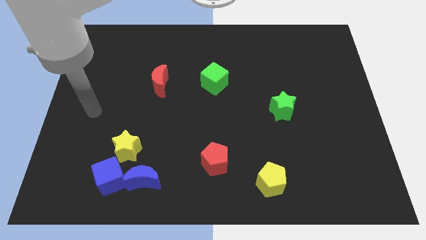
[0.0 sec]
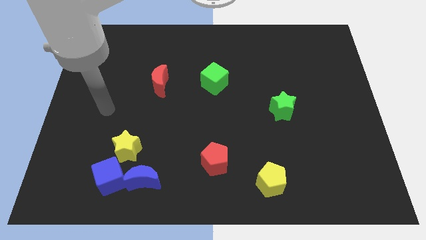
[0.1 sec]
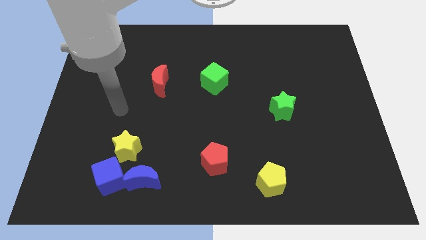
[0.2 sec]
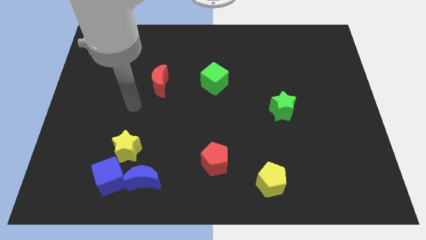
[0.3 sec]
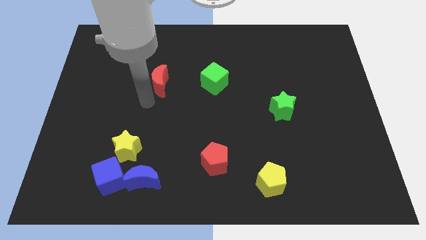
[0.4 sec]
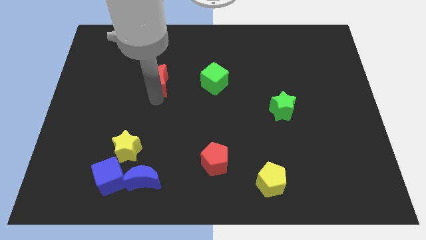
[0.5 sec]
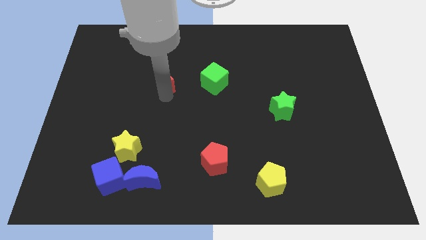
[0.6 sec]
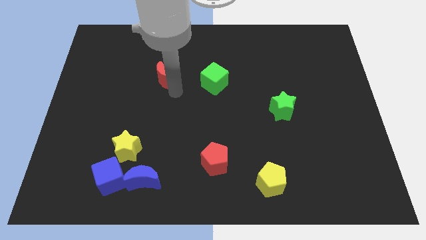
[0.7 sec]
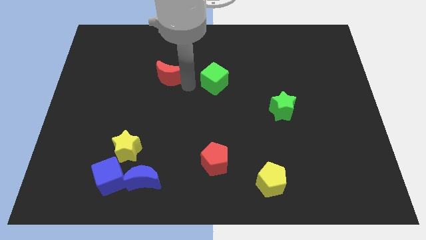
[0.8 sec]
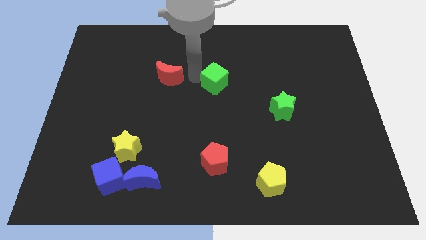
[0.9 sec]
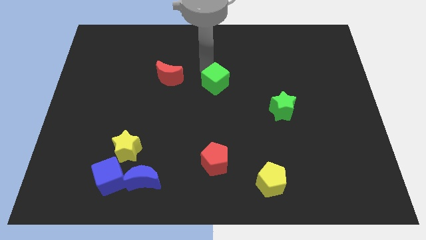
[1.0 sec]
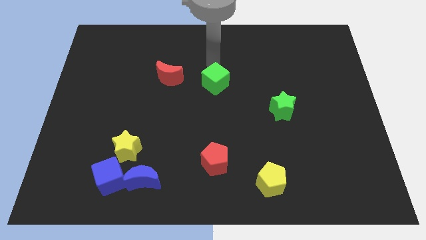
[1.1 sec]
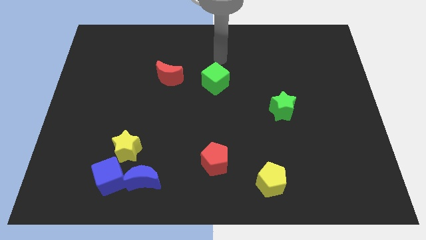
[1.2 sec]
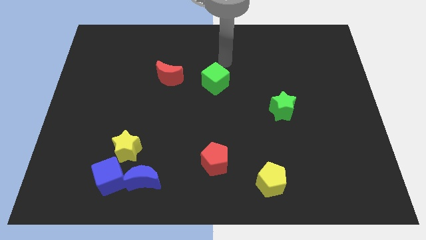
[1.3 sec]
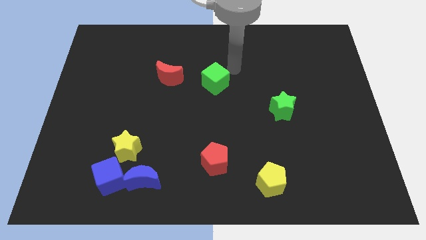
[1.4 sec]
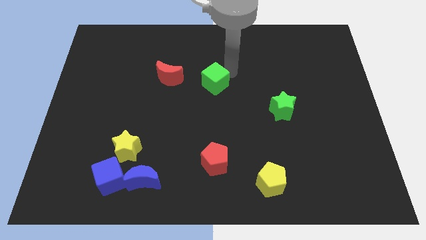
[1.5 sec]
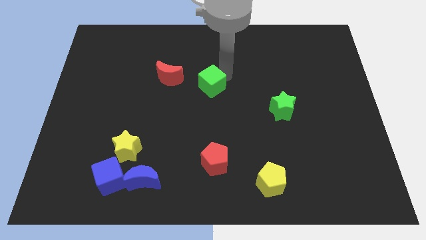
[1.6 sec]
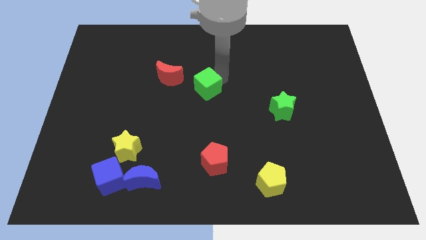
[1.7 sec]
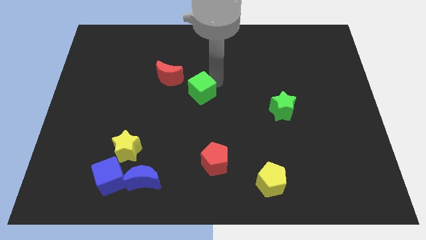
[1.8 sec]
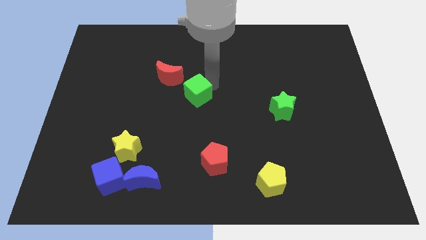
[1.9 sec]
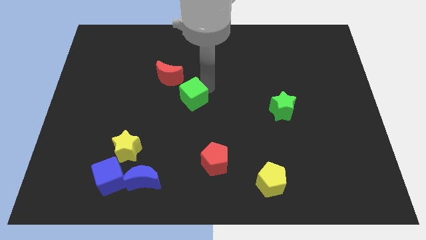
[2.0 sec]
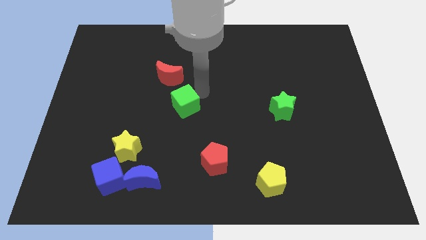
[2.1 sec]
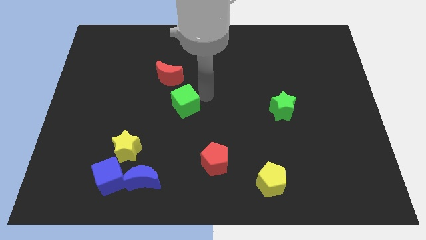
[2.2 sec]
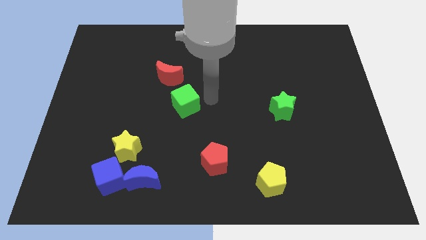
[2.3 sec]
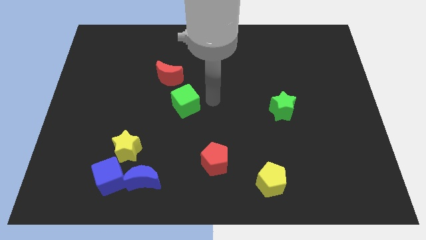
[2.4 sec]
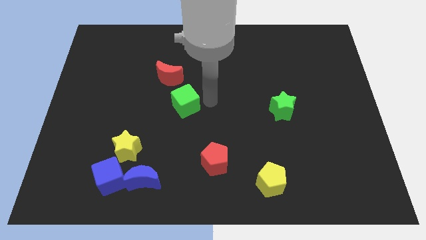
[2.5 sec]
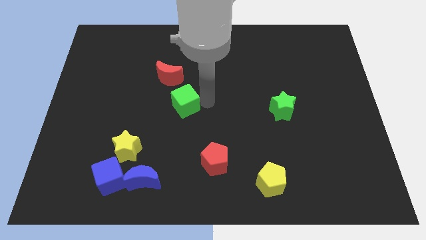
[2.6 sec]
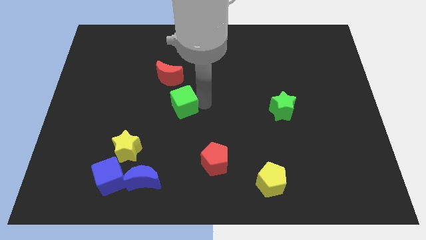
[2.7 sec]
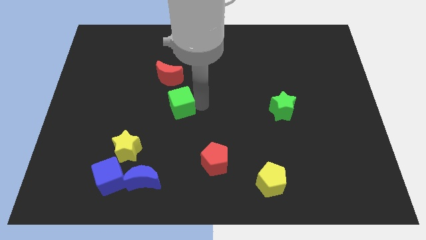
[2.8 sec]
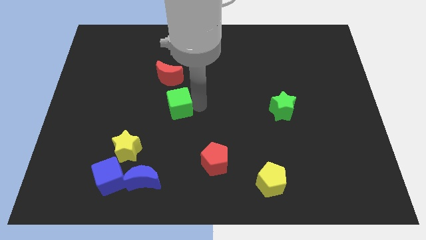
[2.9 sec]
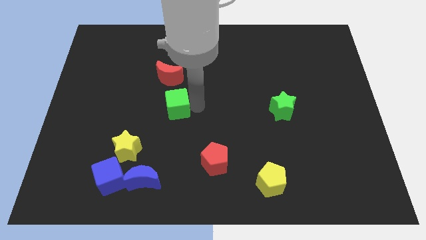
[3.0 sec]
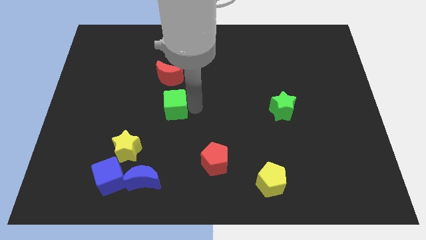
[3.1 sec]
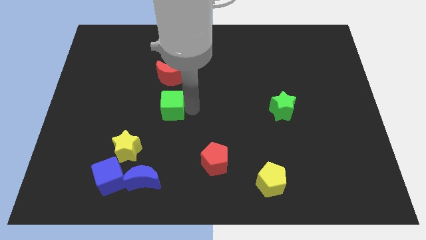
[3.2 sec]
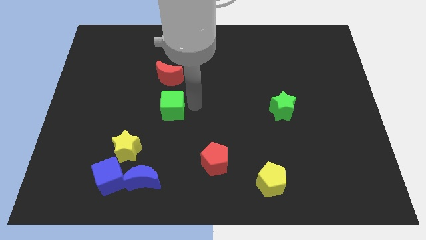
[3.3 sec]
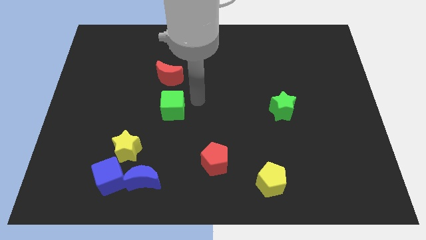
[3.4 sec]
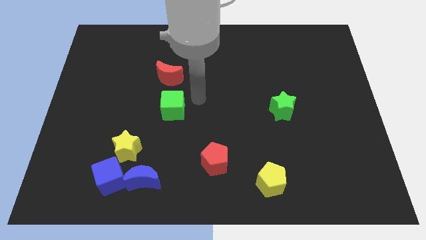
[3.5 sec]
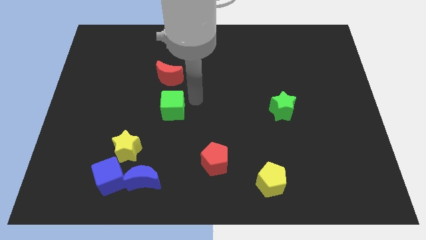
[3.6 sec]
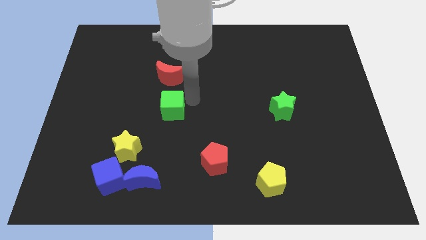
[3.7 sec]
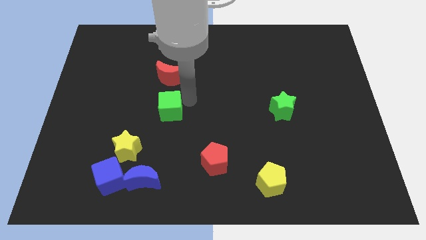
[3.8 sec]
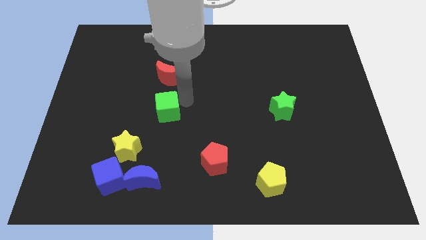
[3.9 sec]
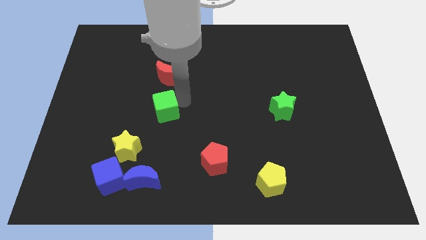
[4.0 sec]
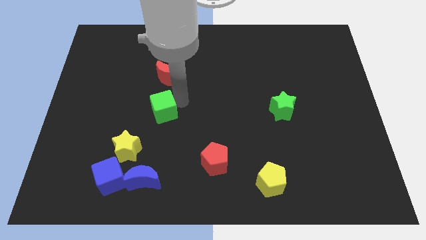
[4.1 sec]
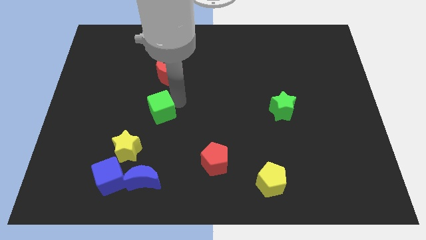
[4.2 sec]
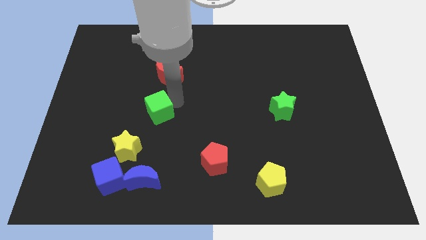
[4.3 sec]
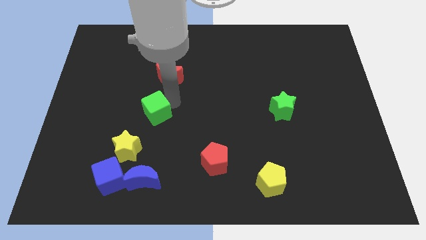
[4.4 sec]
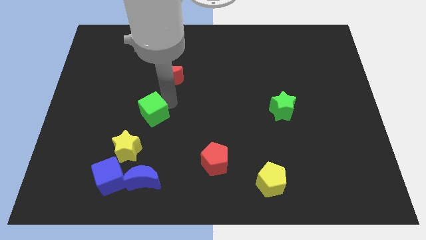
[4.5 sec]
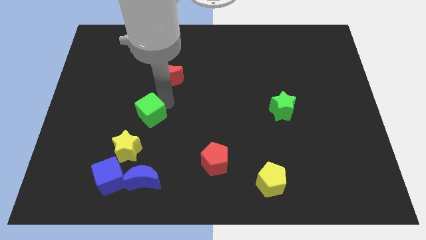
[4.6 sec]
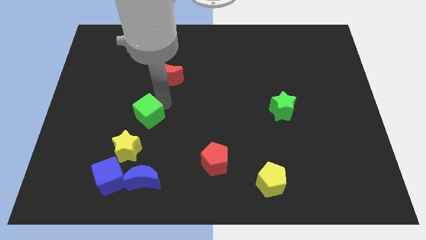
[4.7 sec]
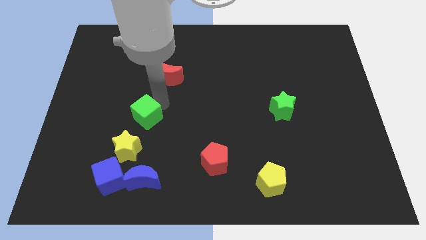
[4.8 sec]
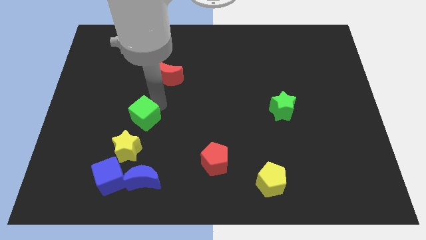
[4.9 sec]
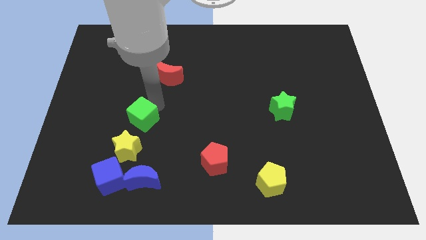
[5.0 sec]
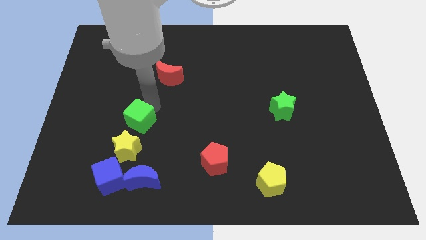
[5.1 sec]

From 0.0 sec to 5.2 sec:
move the green cube downwards and left

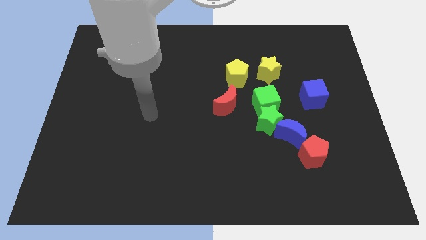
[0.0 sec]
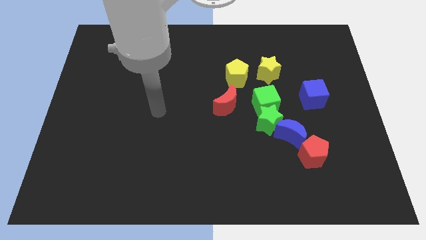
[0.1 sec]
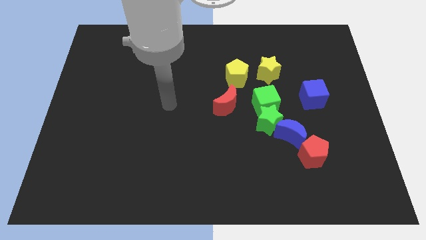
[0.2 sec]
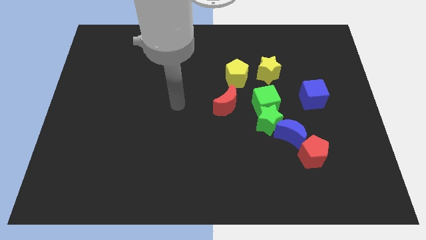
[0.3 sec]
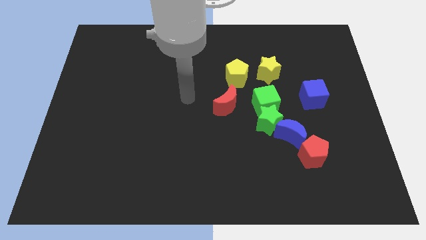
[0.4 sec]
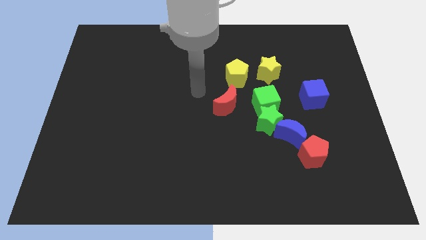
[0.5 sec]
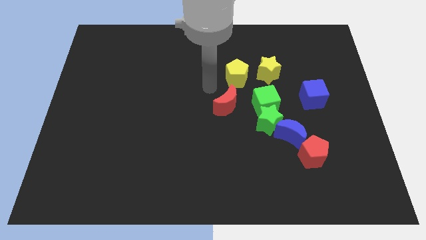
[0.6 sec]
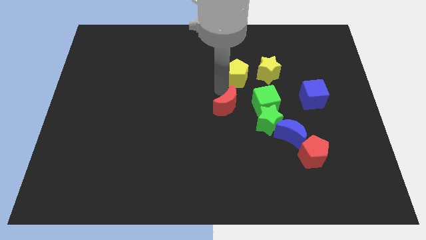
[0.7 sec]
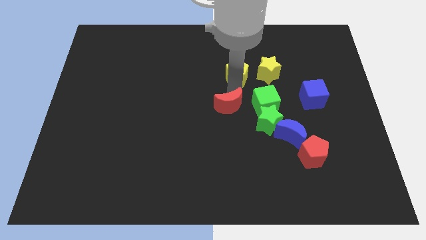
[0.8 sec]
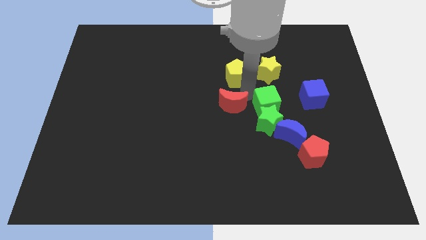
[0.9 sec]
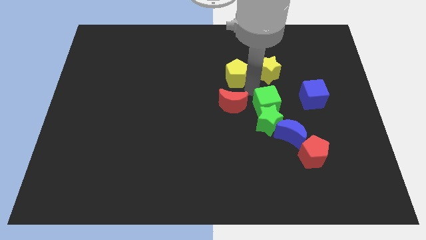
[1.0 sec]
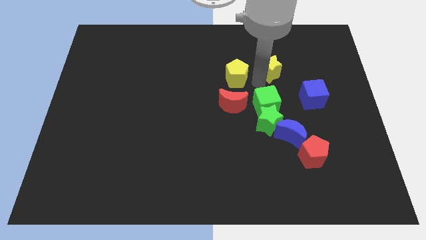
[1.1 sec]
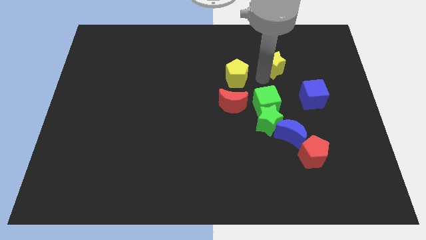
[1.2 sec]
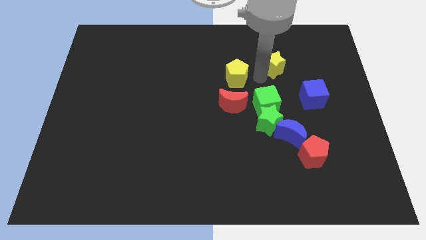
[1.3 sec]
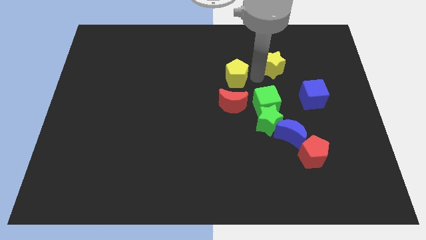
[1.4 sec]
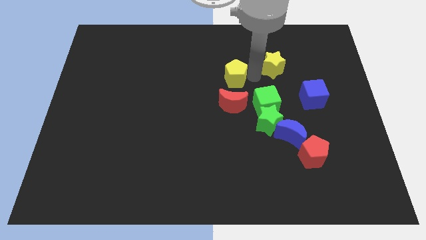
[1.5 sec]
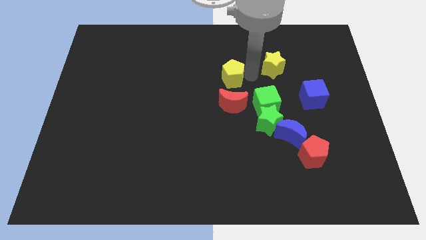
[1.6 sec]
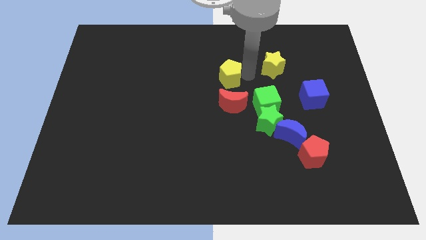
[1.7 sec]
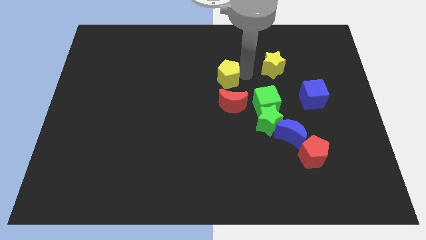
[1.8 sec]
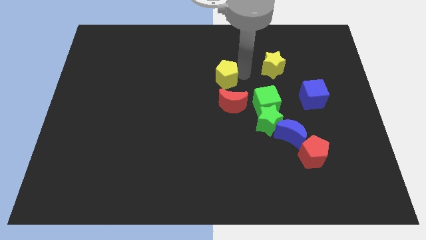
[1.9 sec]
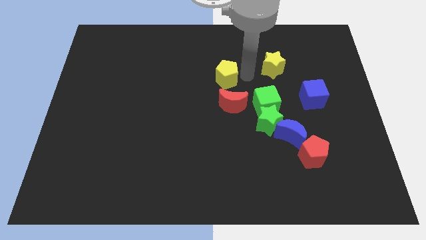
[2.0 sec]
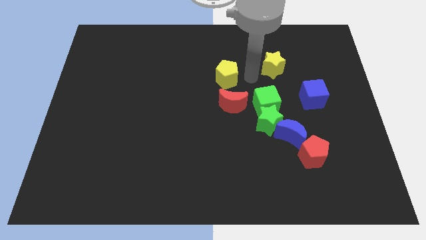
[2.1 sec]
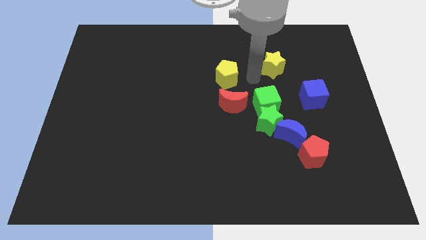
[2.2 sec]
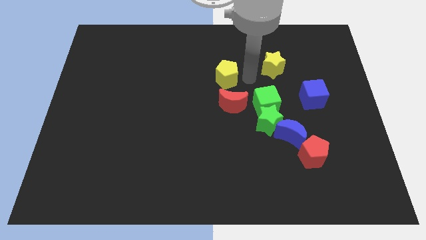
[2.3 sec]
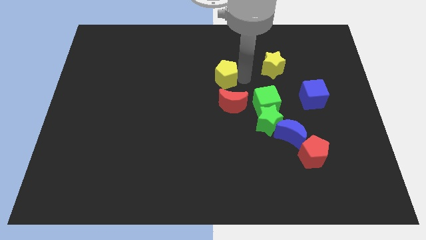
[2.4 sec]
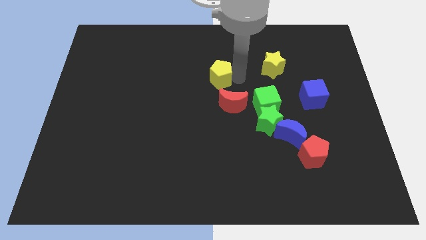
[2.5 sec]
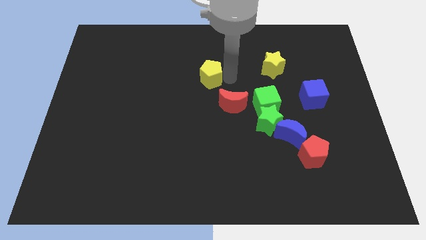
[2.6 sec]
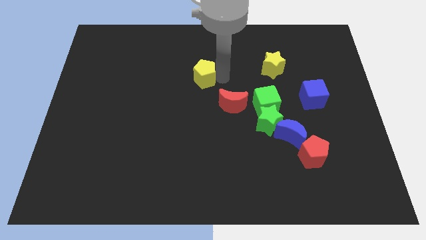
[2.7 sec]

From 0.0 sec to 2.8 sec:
move the yellow pentagon a little bit left
